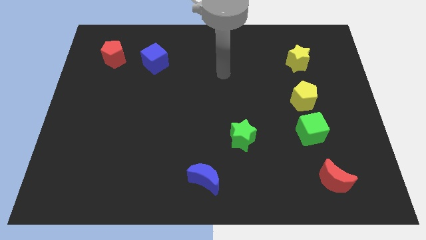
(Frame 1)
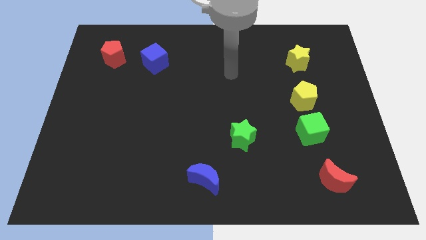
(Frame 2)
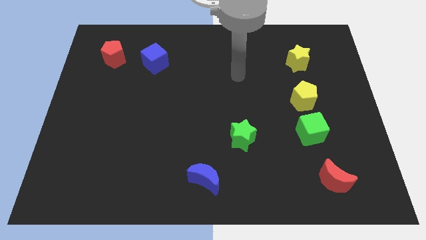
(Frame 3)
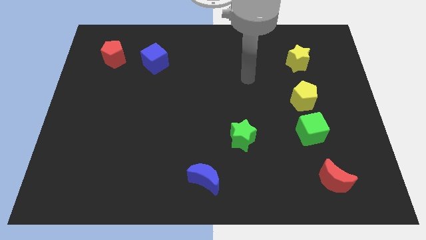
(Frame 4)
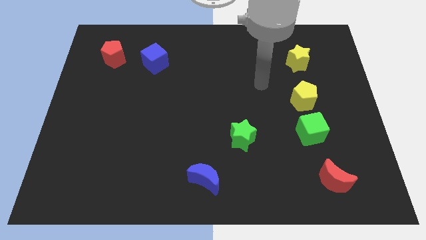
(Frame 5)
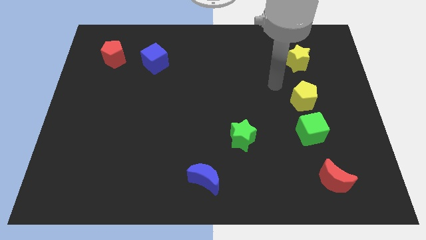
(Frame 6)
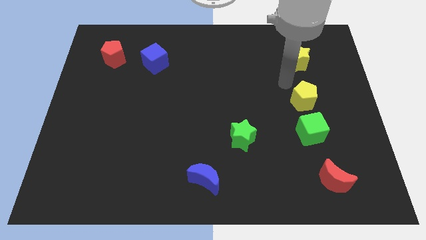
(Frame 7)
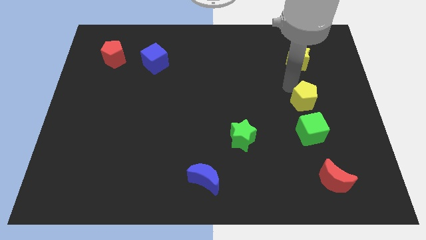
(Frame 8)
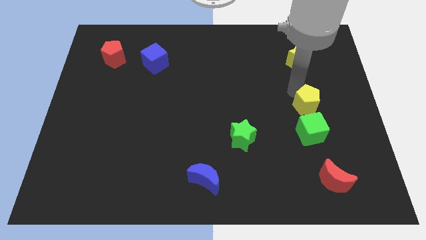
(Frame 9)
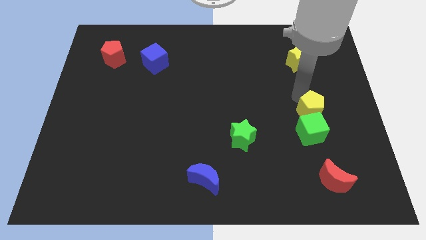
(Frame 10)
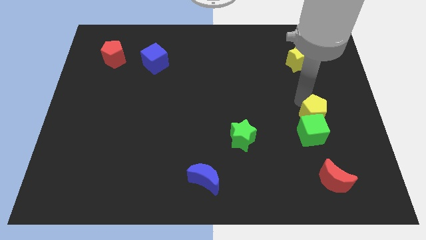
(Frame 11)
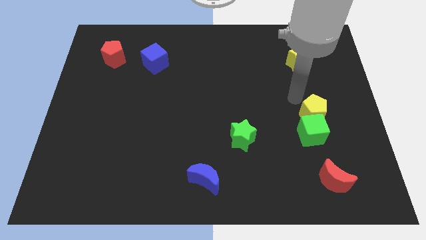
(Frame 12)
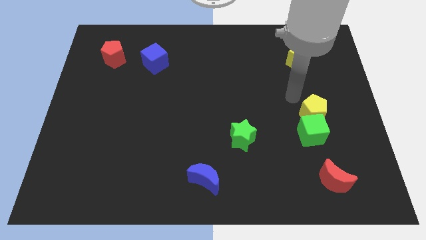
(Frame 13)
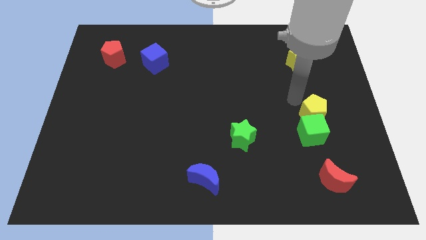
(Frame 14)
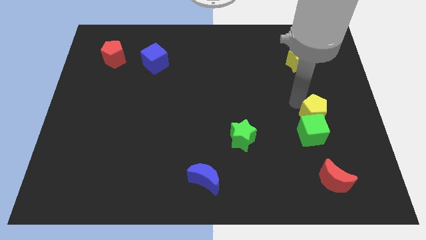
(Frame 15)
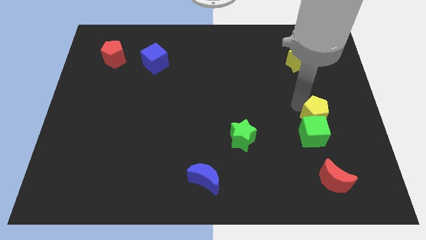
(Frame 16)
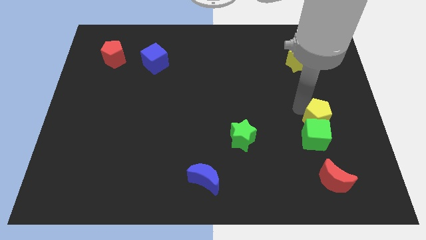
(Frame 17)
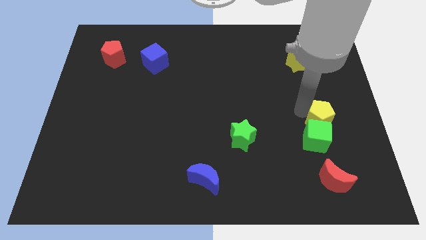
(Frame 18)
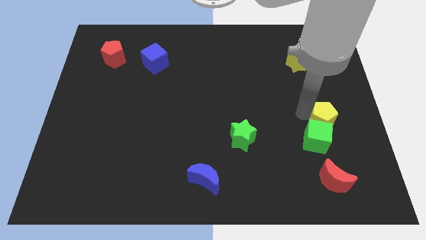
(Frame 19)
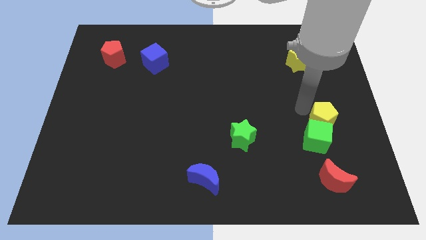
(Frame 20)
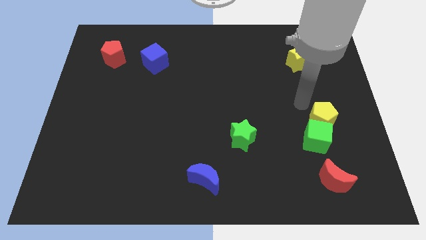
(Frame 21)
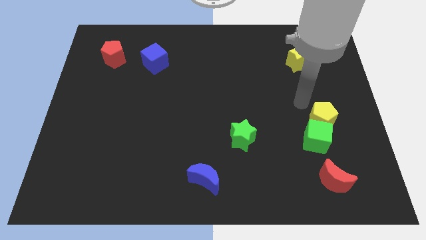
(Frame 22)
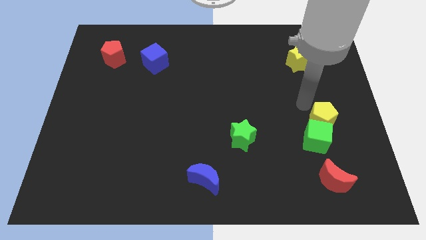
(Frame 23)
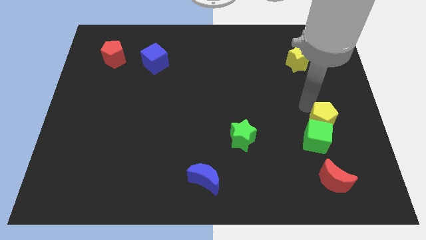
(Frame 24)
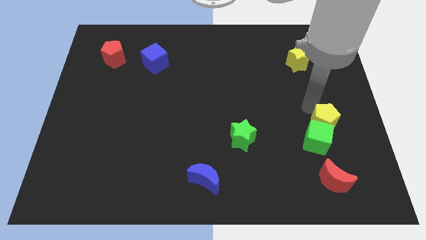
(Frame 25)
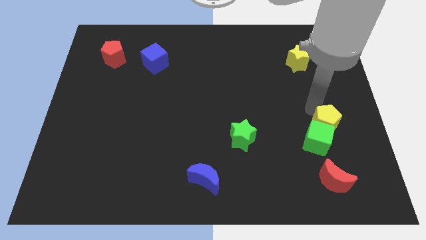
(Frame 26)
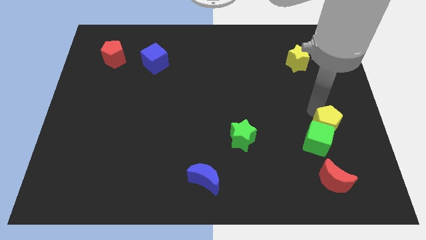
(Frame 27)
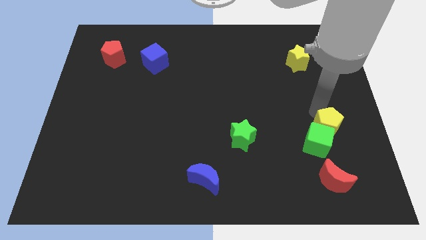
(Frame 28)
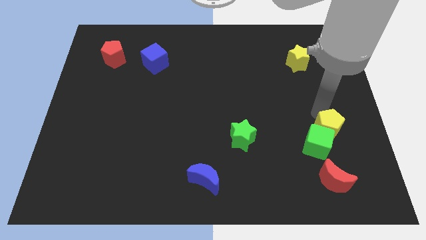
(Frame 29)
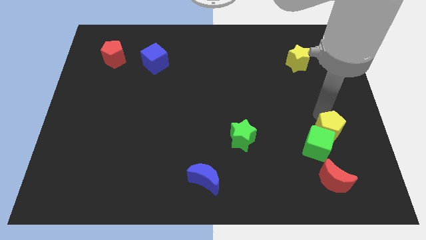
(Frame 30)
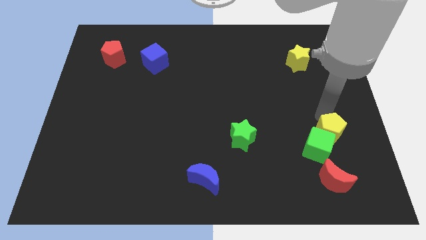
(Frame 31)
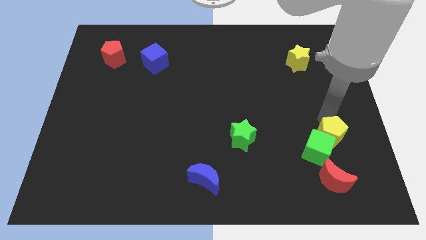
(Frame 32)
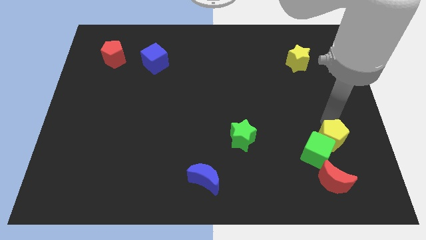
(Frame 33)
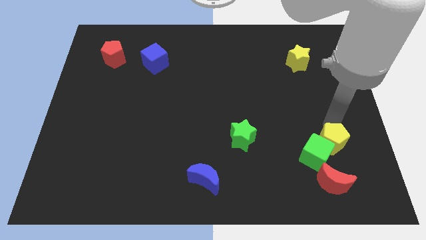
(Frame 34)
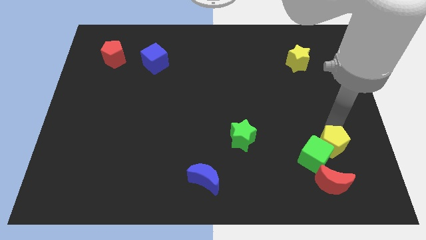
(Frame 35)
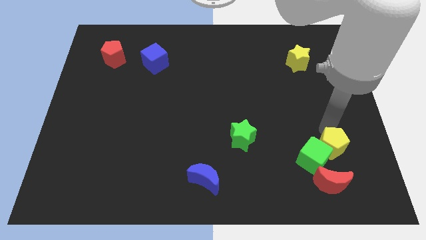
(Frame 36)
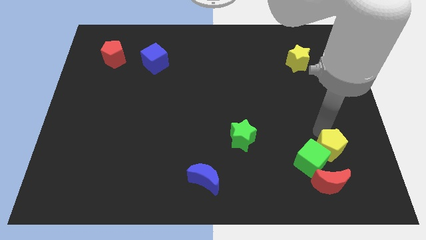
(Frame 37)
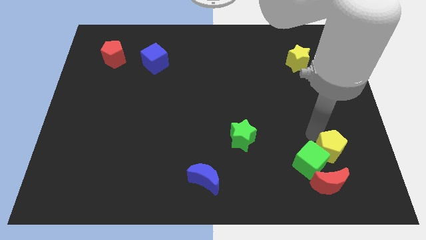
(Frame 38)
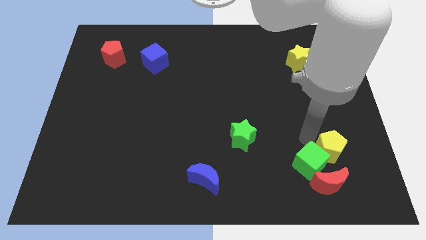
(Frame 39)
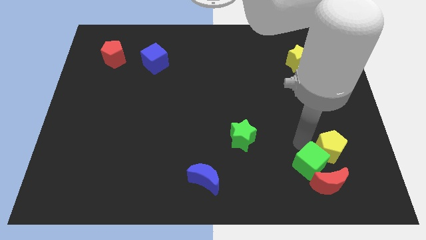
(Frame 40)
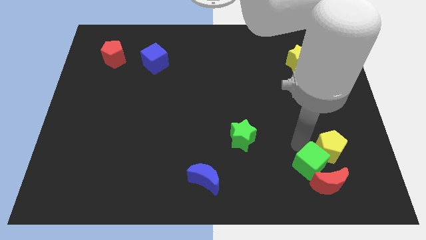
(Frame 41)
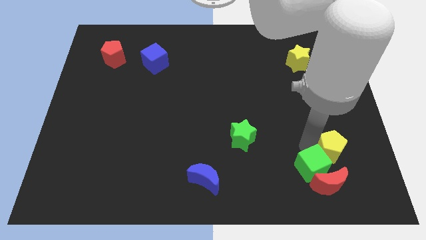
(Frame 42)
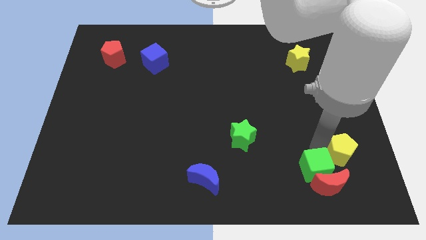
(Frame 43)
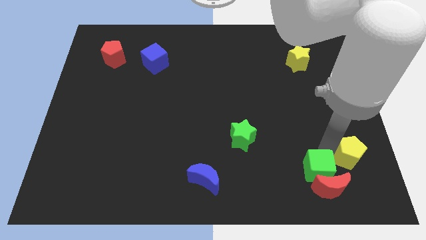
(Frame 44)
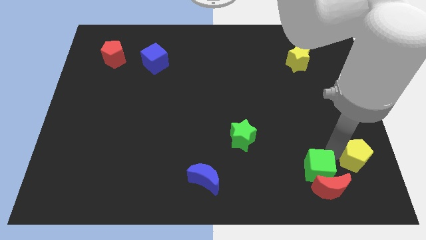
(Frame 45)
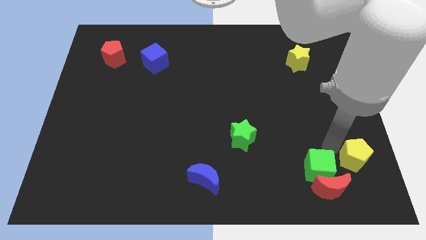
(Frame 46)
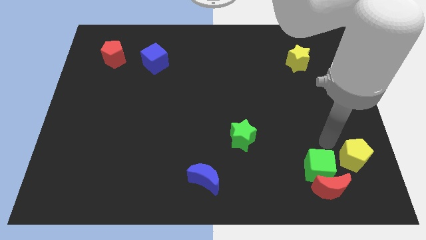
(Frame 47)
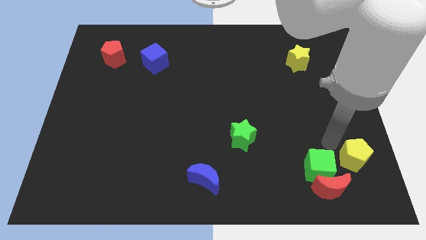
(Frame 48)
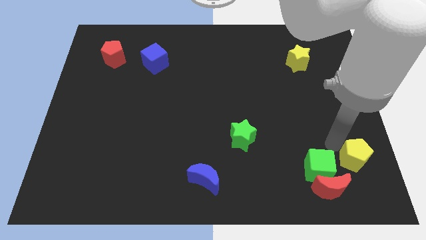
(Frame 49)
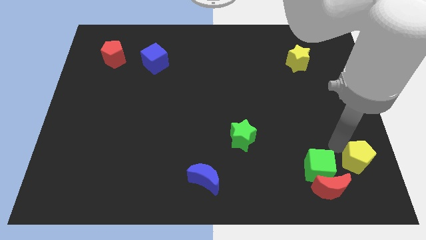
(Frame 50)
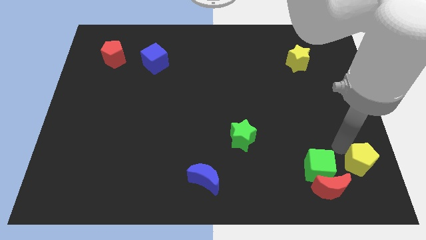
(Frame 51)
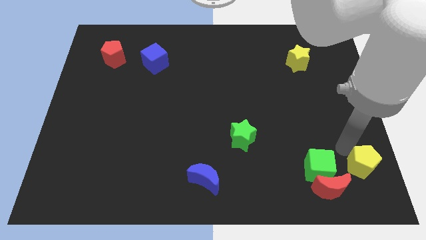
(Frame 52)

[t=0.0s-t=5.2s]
put the yellow pentagon to the lower right corner

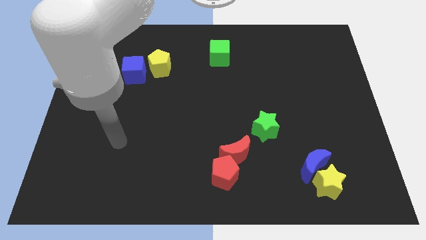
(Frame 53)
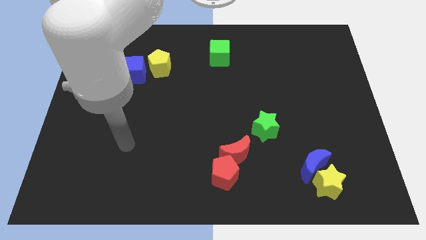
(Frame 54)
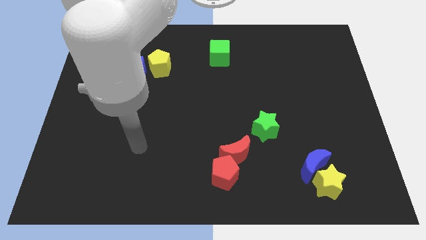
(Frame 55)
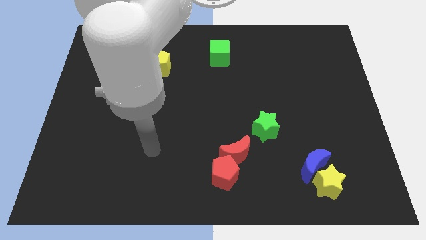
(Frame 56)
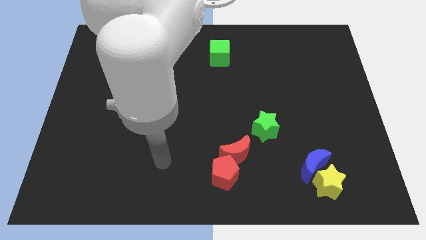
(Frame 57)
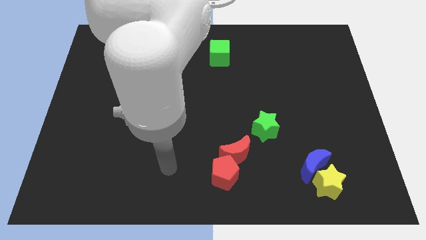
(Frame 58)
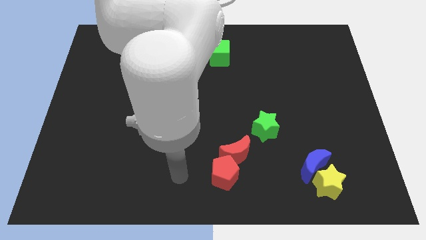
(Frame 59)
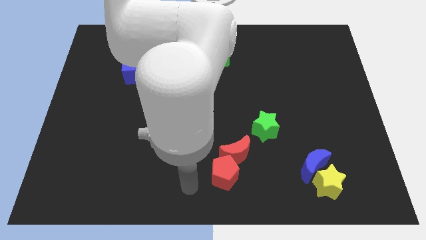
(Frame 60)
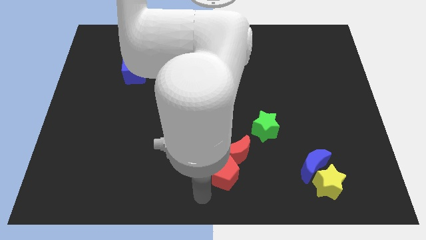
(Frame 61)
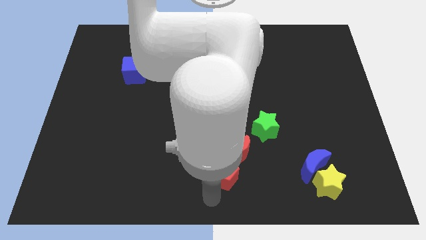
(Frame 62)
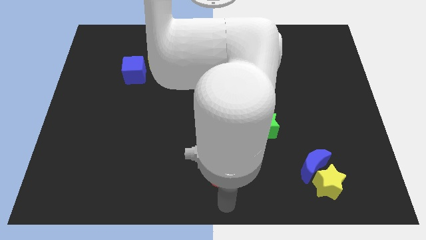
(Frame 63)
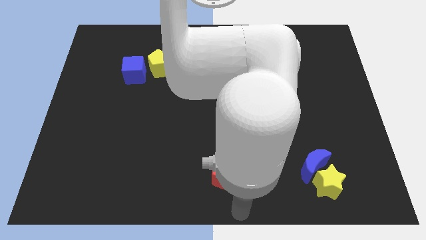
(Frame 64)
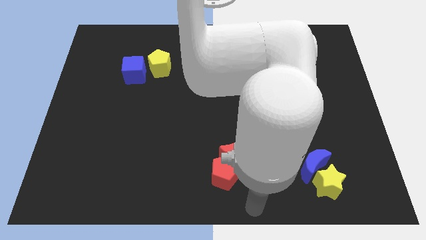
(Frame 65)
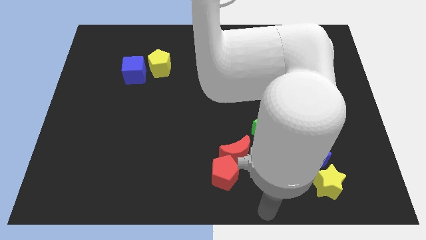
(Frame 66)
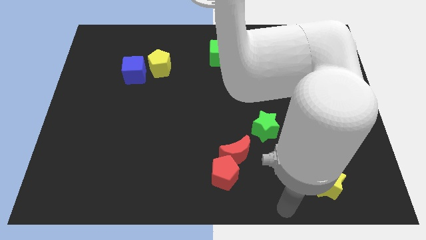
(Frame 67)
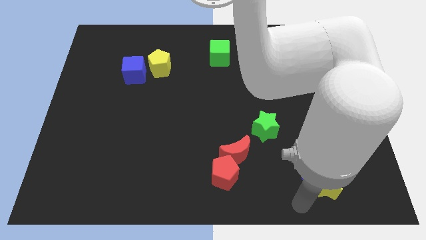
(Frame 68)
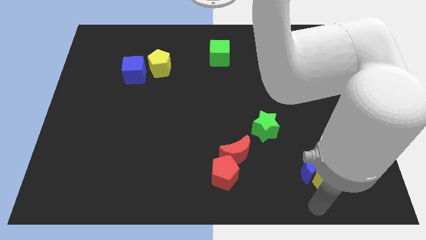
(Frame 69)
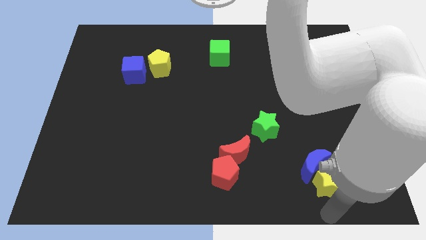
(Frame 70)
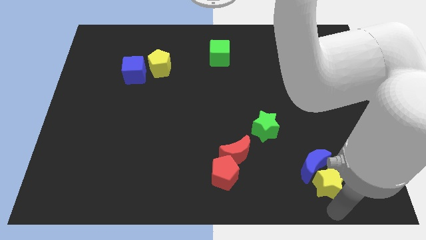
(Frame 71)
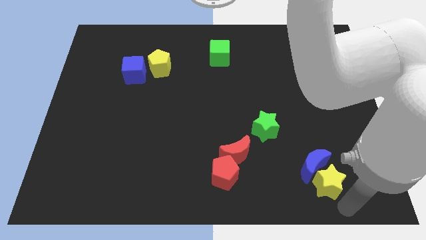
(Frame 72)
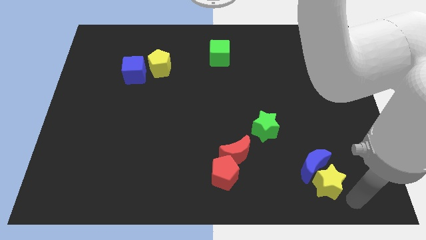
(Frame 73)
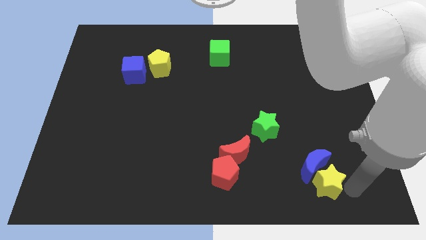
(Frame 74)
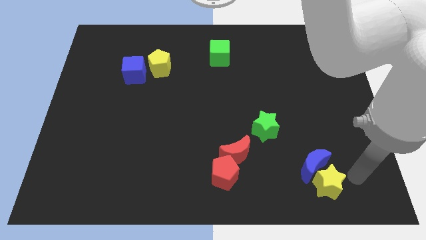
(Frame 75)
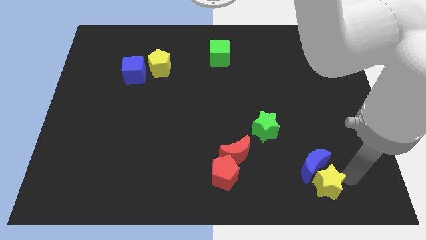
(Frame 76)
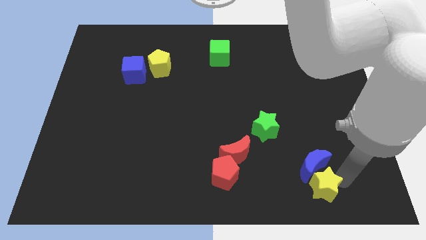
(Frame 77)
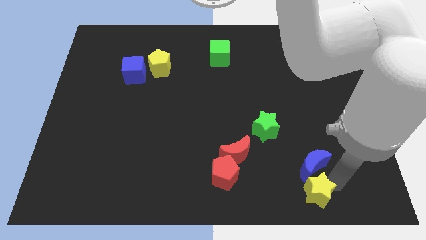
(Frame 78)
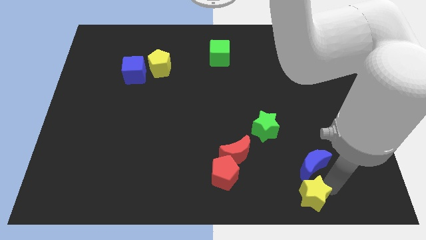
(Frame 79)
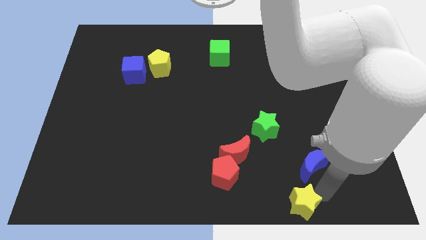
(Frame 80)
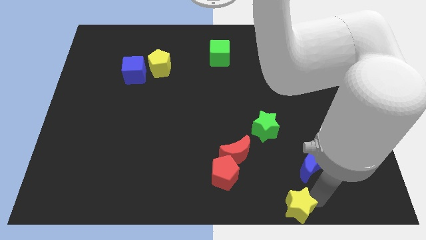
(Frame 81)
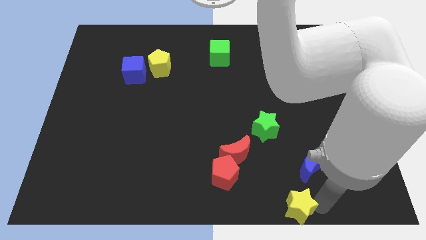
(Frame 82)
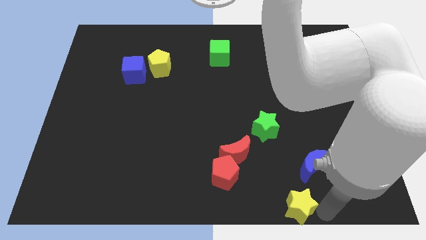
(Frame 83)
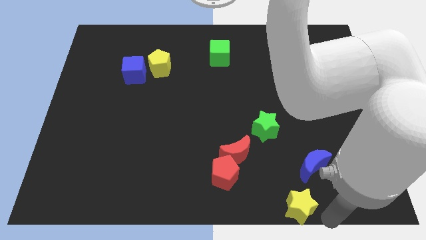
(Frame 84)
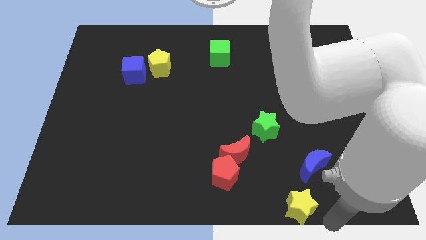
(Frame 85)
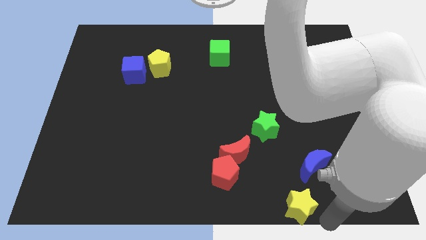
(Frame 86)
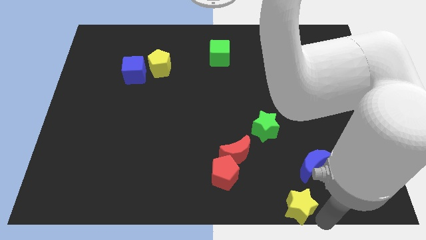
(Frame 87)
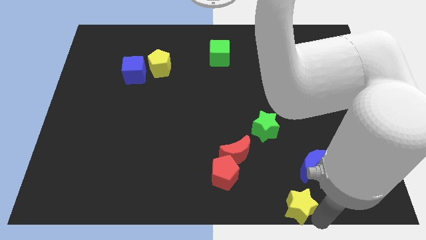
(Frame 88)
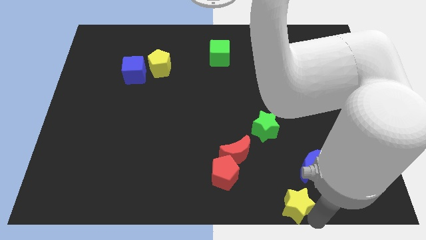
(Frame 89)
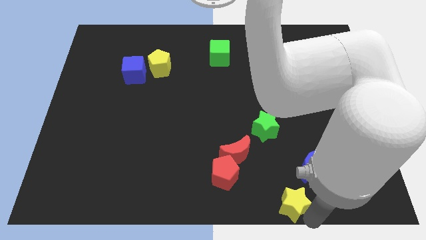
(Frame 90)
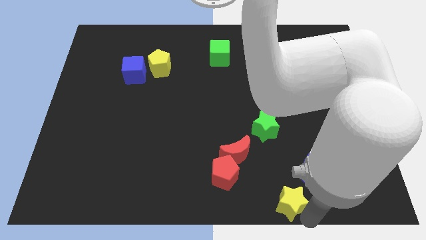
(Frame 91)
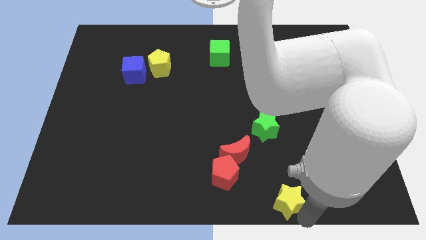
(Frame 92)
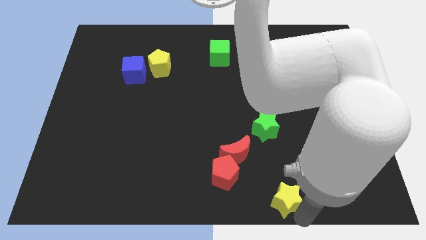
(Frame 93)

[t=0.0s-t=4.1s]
move the yellow star to the bottom
